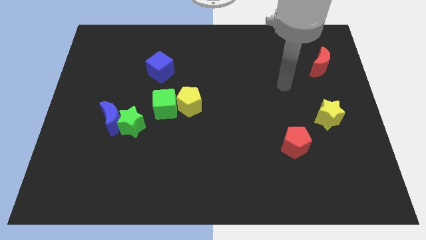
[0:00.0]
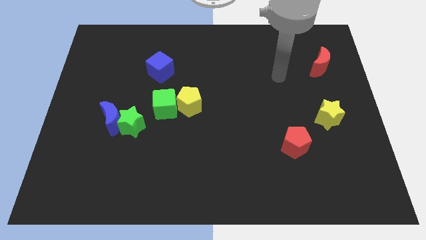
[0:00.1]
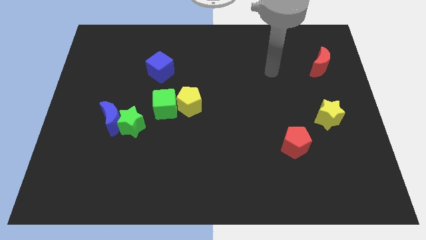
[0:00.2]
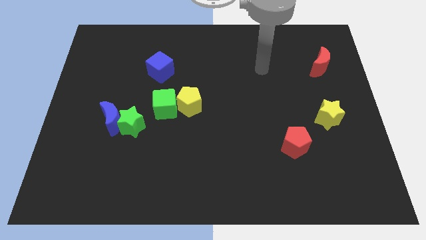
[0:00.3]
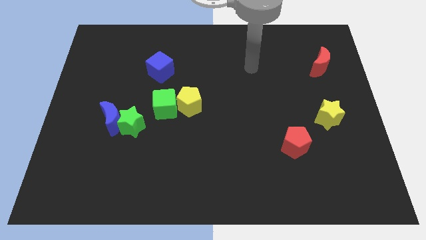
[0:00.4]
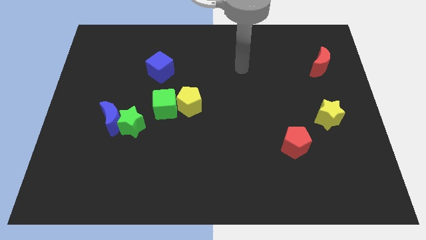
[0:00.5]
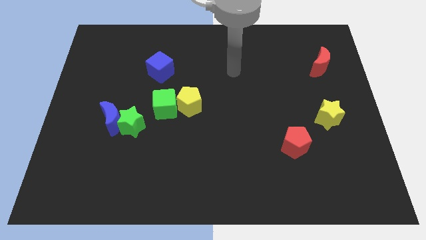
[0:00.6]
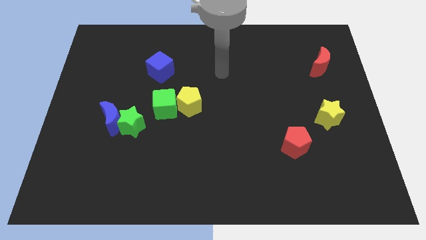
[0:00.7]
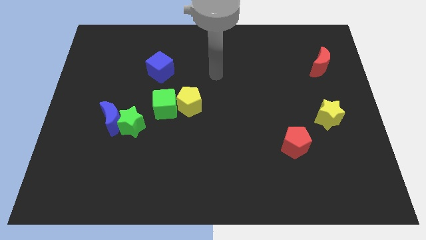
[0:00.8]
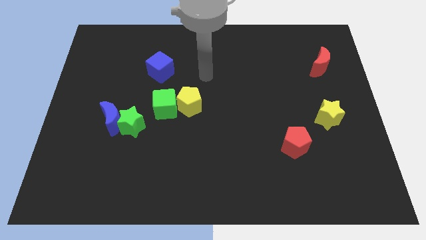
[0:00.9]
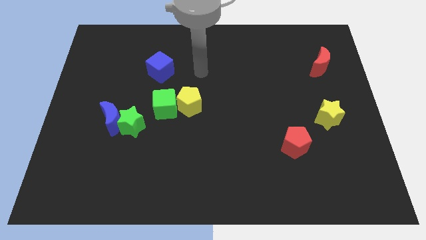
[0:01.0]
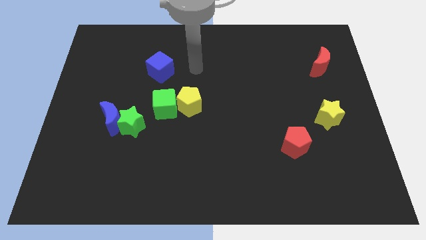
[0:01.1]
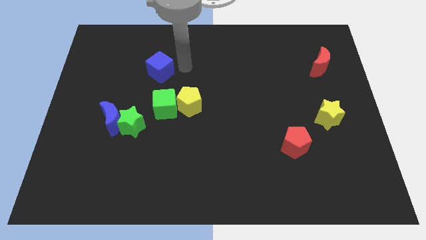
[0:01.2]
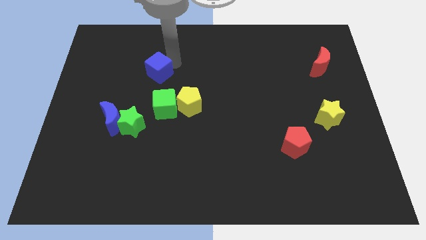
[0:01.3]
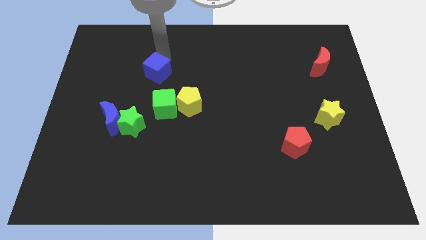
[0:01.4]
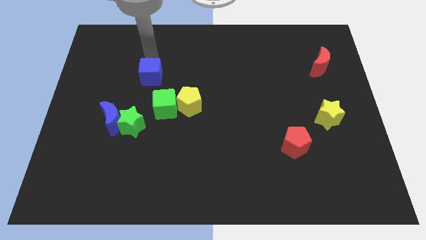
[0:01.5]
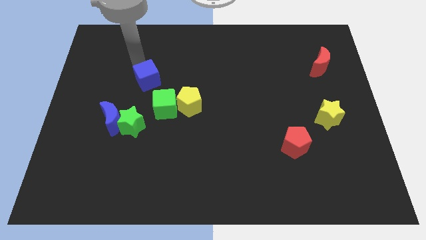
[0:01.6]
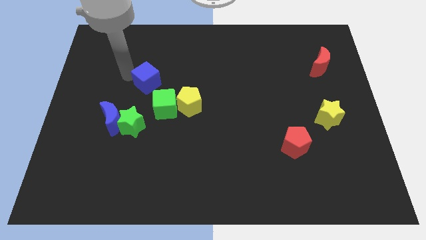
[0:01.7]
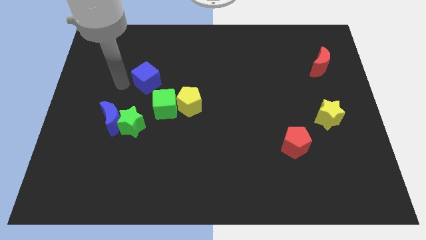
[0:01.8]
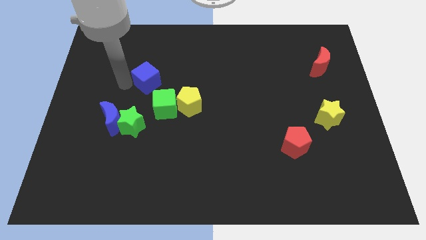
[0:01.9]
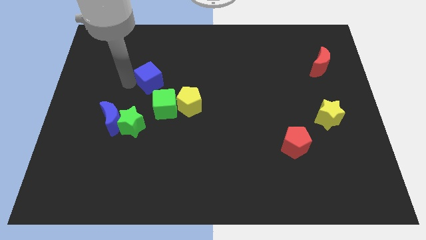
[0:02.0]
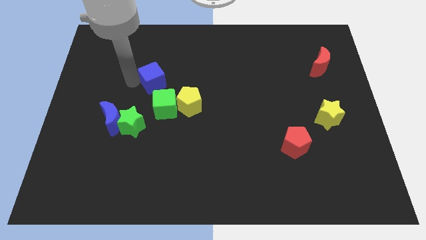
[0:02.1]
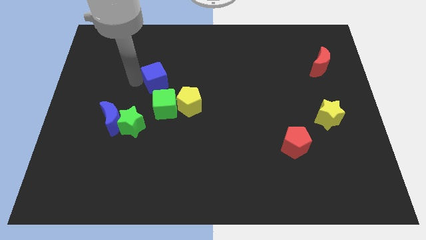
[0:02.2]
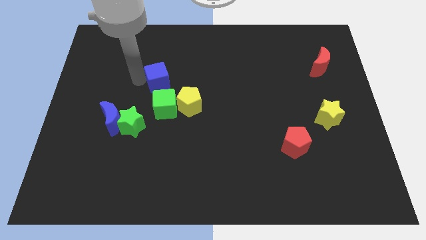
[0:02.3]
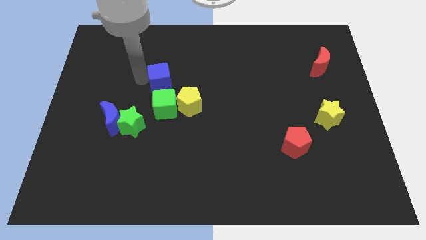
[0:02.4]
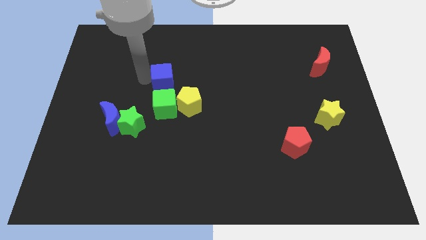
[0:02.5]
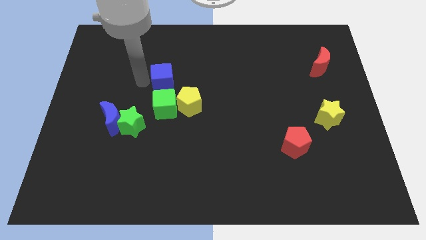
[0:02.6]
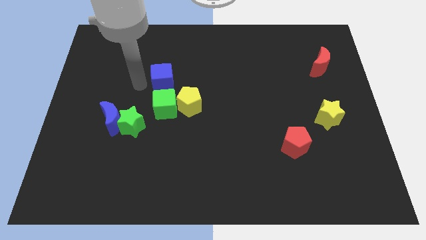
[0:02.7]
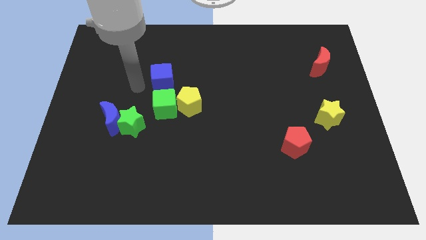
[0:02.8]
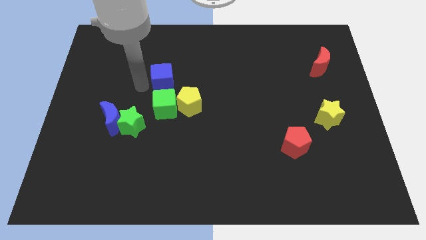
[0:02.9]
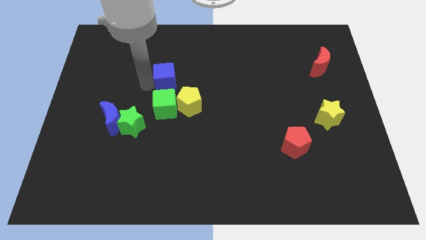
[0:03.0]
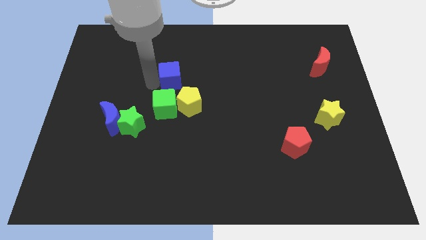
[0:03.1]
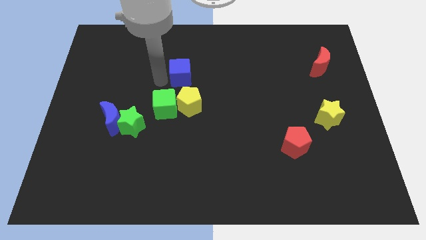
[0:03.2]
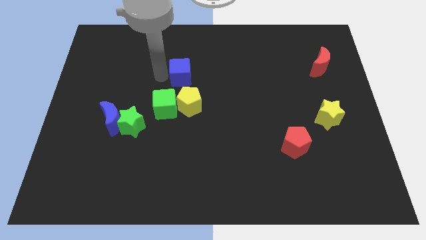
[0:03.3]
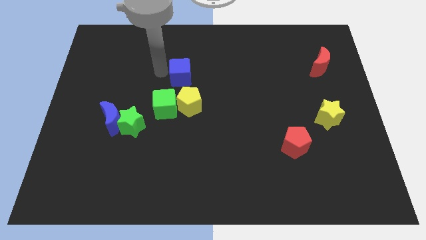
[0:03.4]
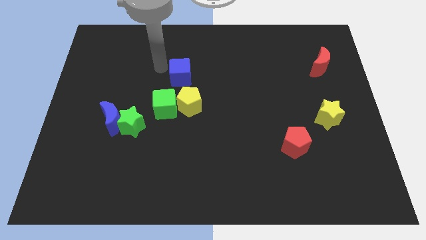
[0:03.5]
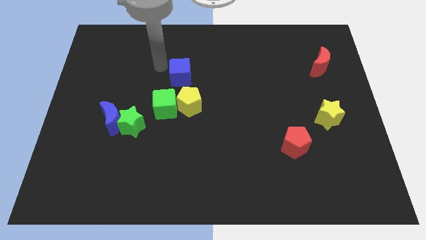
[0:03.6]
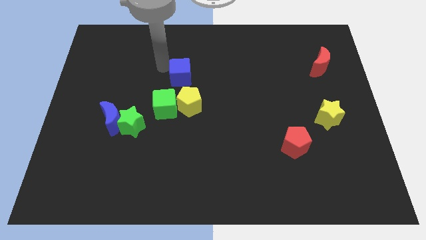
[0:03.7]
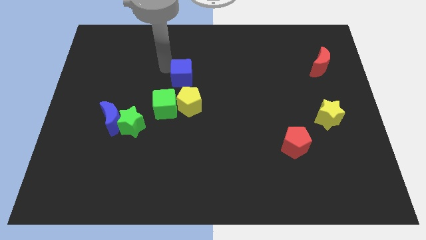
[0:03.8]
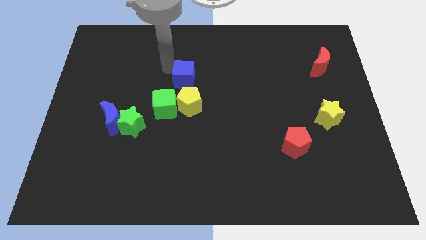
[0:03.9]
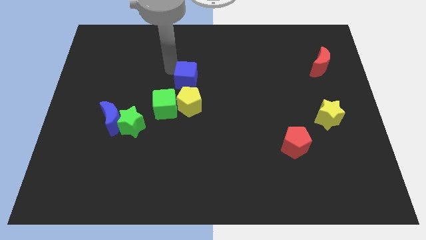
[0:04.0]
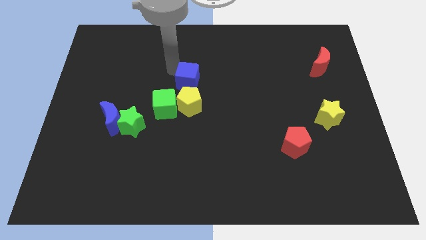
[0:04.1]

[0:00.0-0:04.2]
push the blue cube downwards and right diagonally a little bit

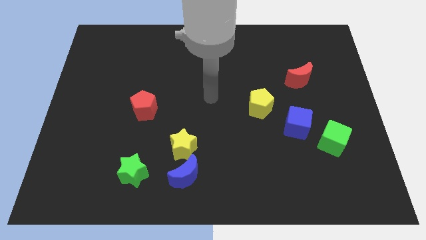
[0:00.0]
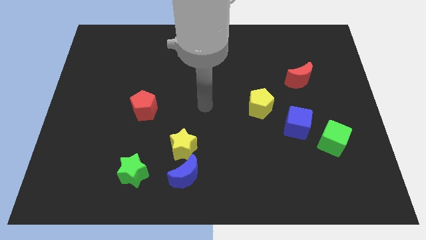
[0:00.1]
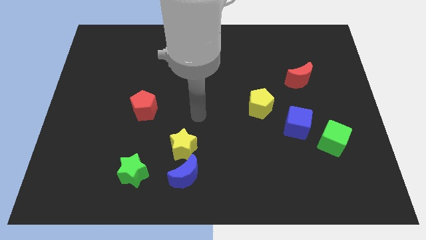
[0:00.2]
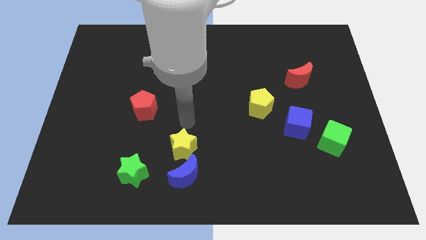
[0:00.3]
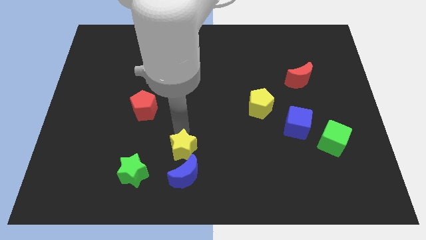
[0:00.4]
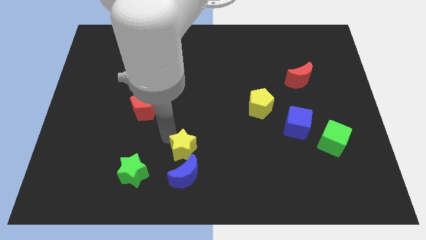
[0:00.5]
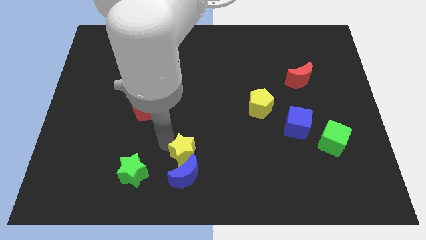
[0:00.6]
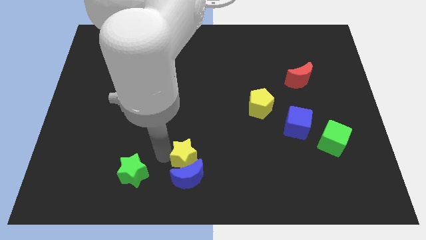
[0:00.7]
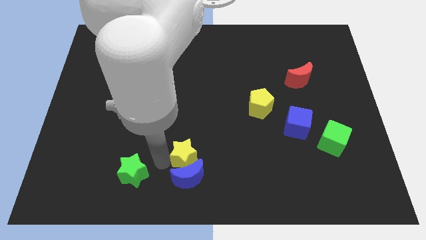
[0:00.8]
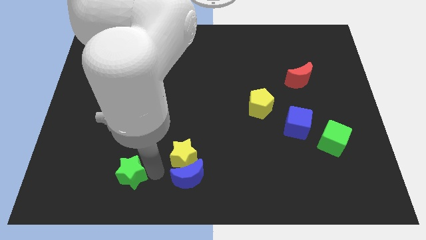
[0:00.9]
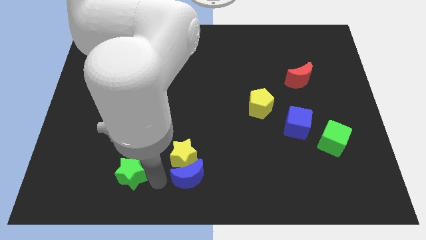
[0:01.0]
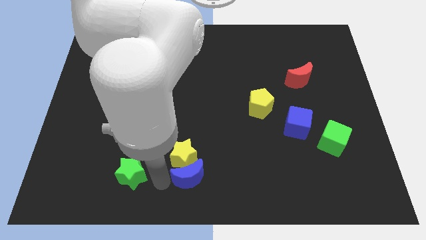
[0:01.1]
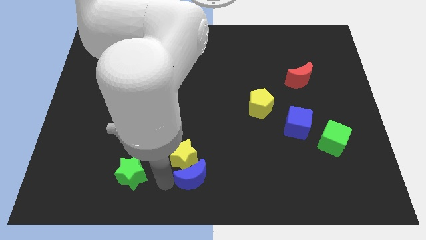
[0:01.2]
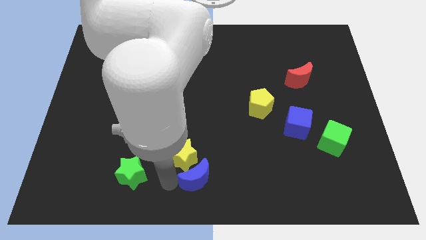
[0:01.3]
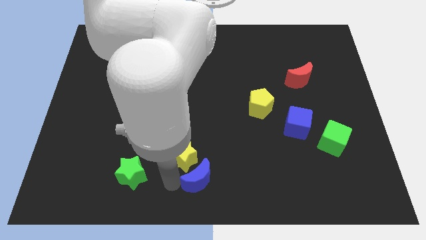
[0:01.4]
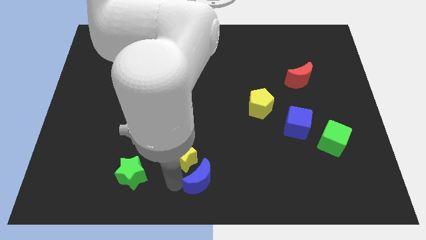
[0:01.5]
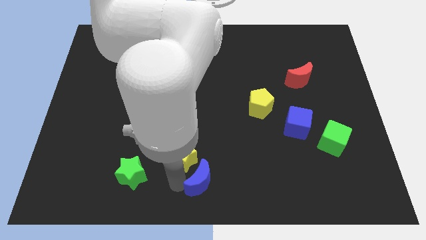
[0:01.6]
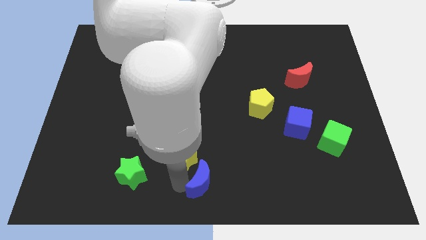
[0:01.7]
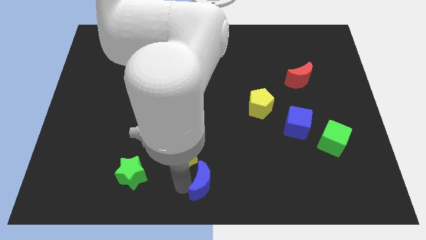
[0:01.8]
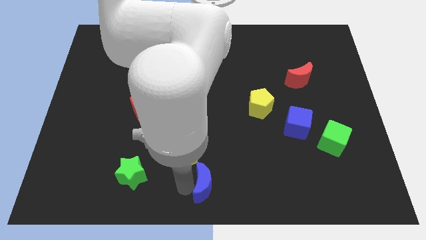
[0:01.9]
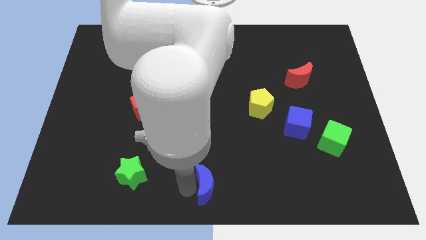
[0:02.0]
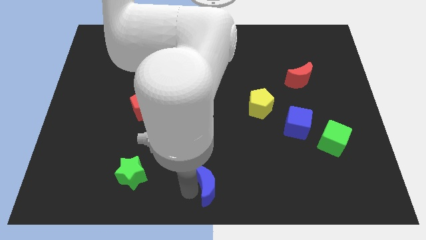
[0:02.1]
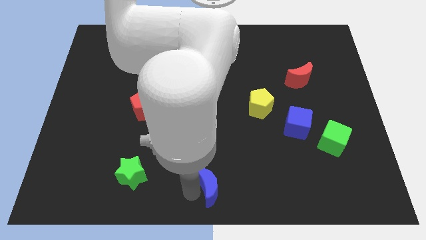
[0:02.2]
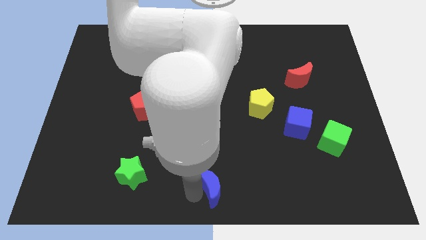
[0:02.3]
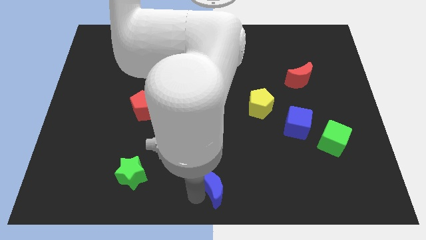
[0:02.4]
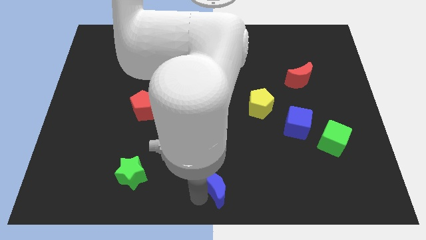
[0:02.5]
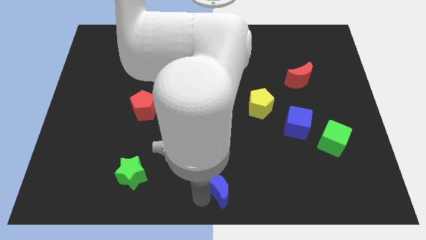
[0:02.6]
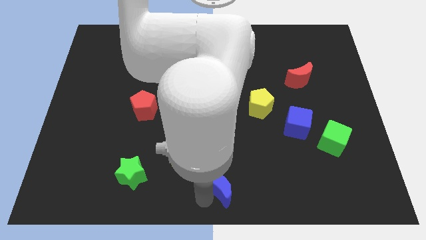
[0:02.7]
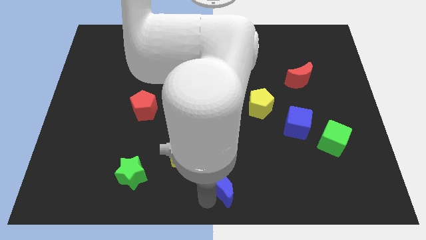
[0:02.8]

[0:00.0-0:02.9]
slightly push the blue moon right

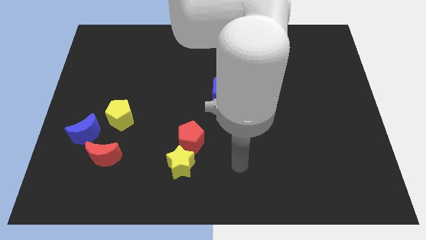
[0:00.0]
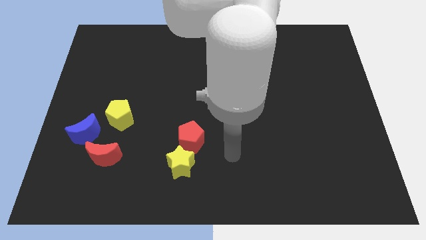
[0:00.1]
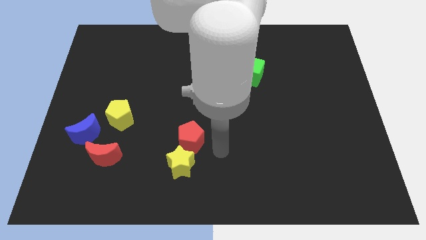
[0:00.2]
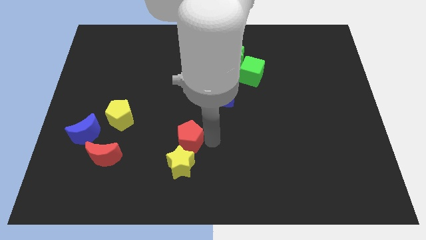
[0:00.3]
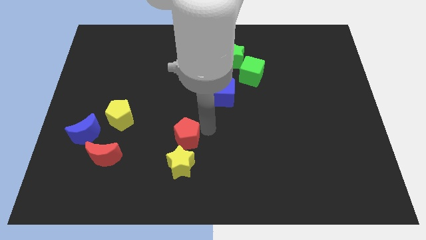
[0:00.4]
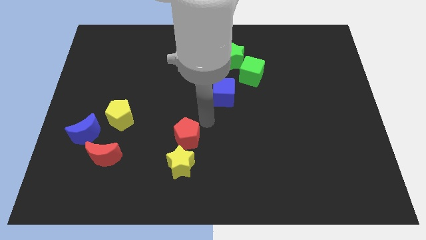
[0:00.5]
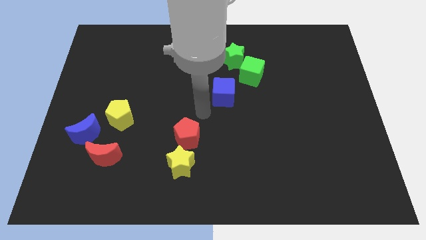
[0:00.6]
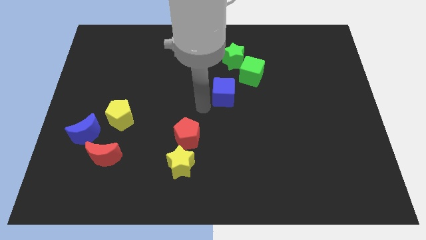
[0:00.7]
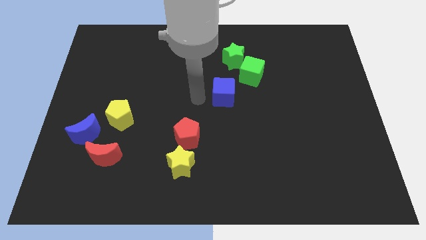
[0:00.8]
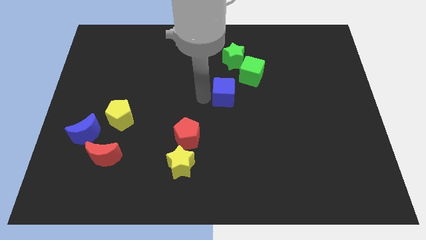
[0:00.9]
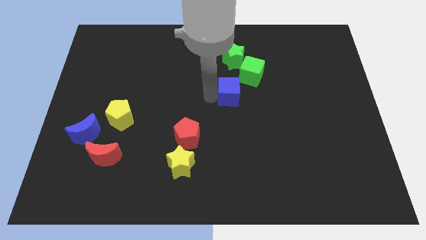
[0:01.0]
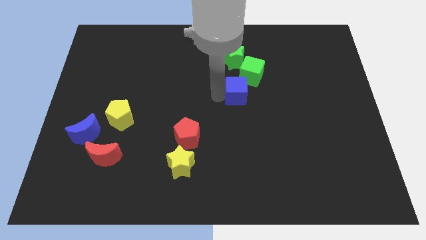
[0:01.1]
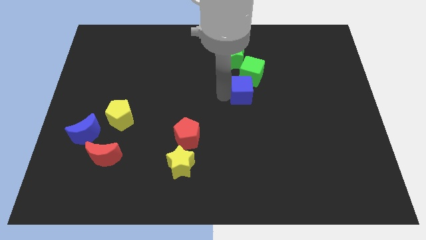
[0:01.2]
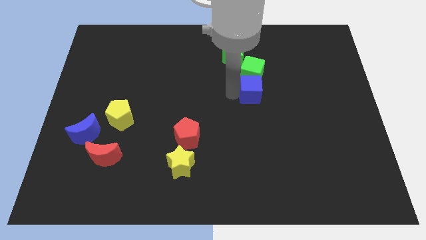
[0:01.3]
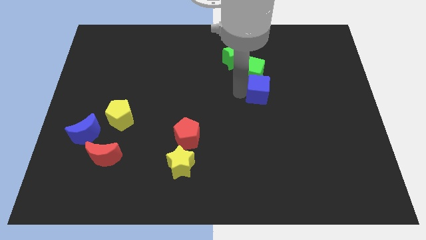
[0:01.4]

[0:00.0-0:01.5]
slightly move the blue cube to the right
